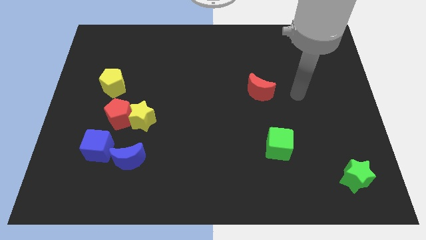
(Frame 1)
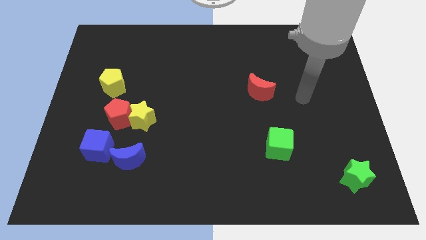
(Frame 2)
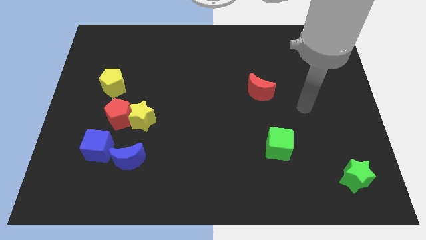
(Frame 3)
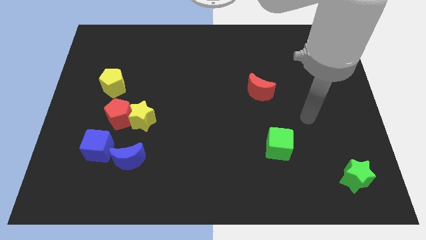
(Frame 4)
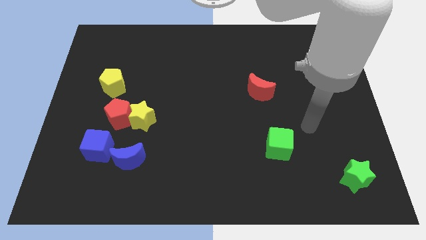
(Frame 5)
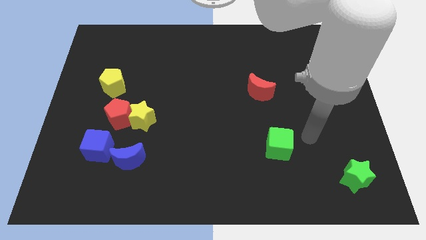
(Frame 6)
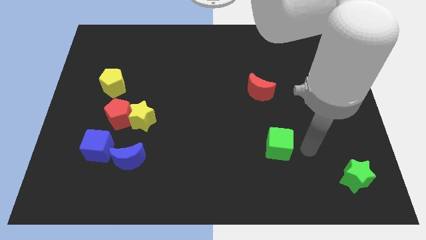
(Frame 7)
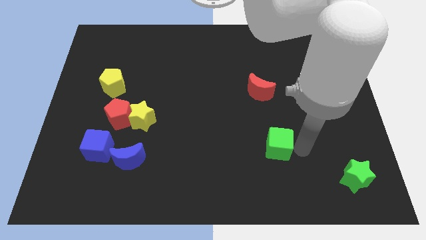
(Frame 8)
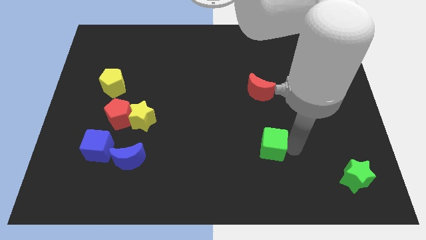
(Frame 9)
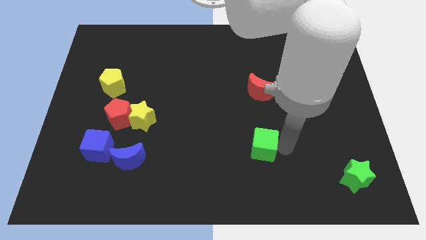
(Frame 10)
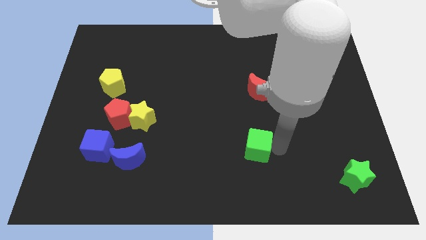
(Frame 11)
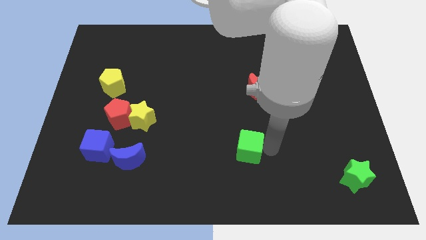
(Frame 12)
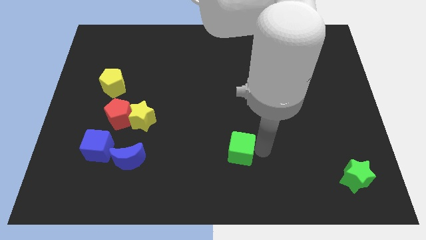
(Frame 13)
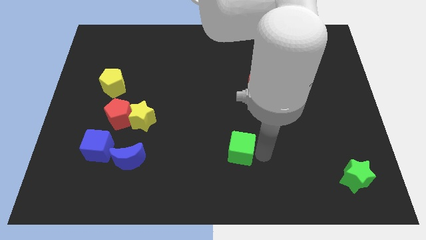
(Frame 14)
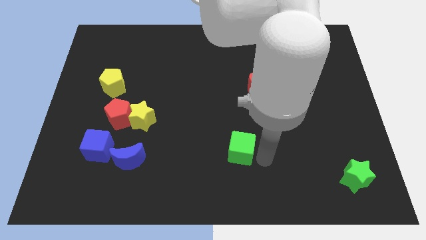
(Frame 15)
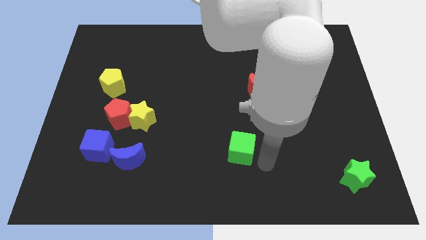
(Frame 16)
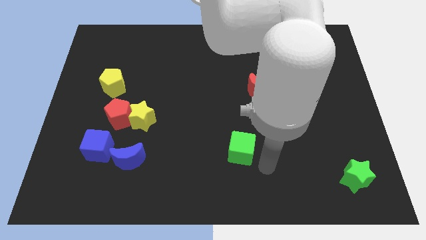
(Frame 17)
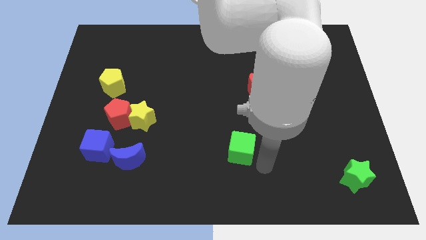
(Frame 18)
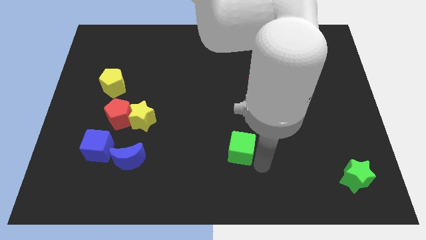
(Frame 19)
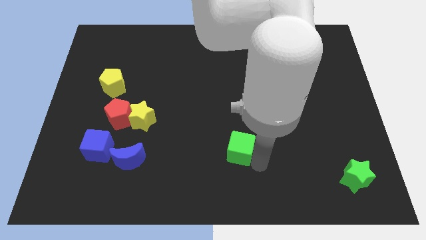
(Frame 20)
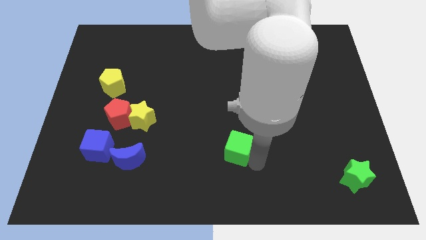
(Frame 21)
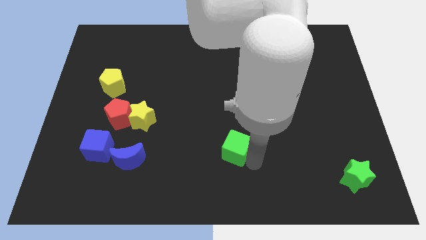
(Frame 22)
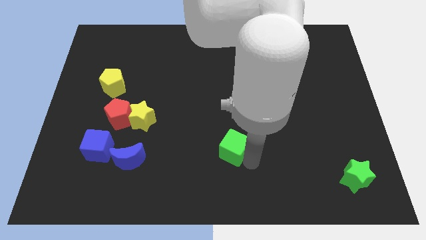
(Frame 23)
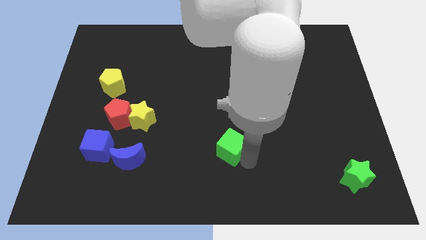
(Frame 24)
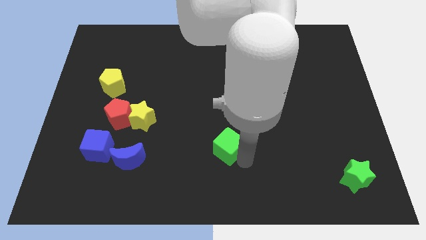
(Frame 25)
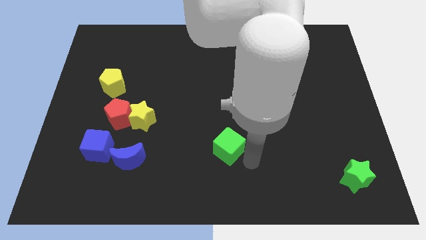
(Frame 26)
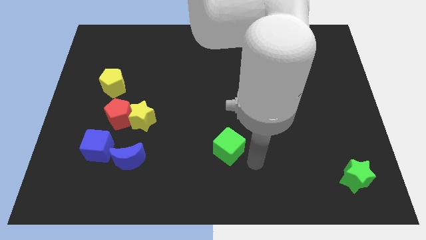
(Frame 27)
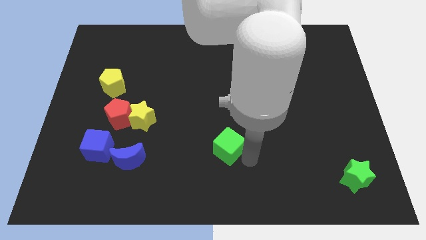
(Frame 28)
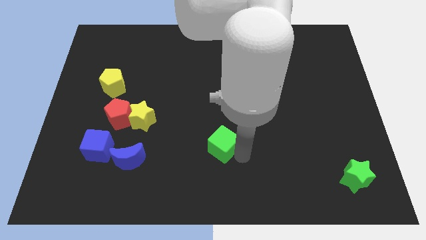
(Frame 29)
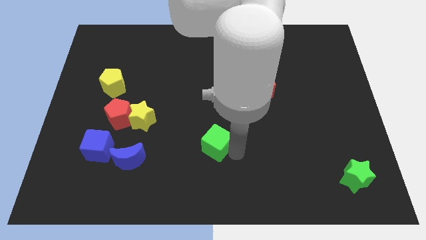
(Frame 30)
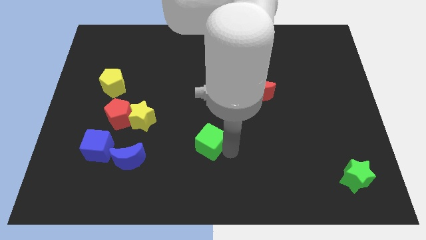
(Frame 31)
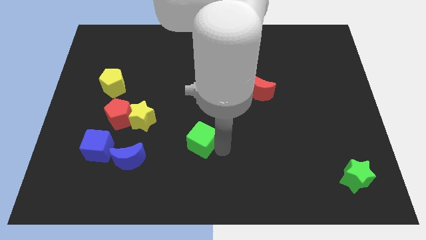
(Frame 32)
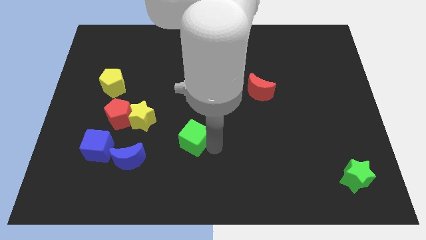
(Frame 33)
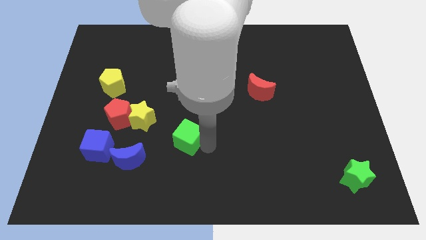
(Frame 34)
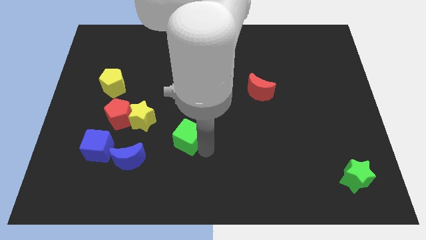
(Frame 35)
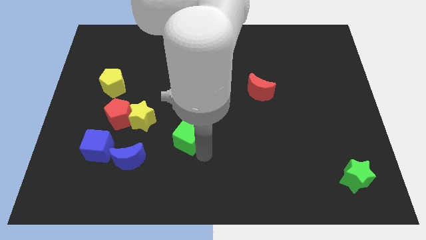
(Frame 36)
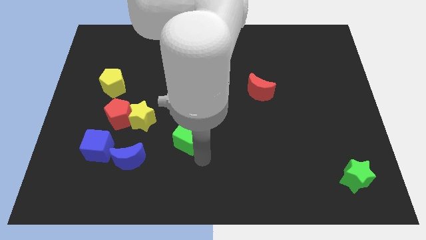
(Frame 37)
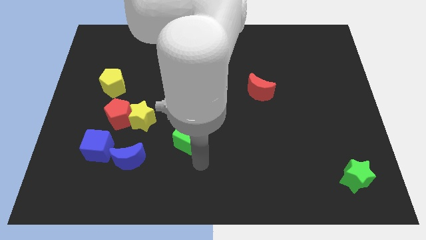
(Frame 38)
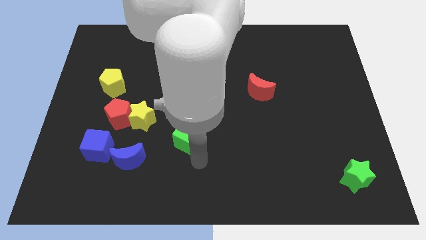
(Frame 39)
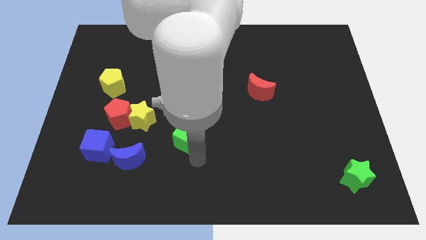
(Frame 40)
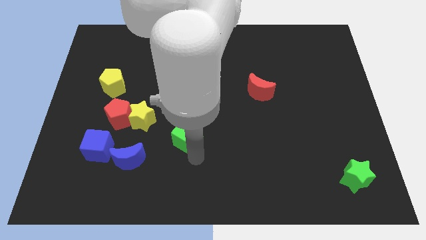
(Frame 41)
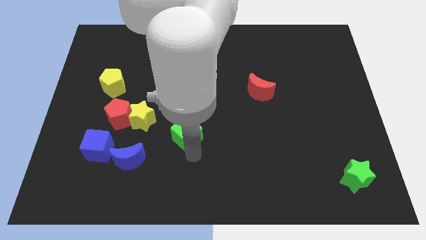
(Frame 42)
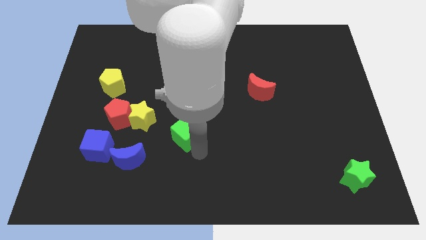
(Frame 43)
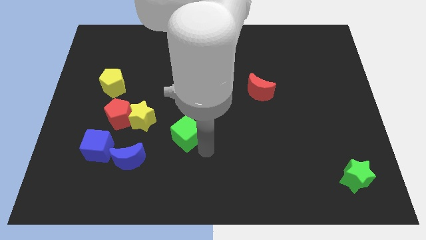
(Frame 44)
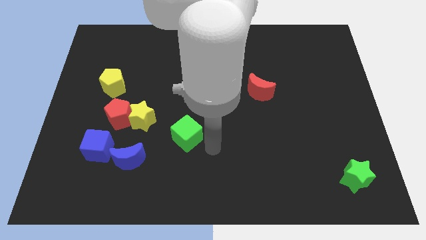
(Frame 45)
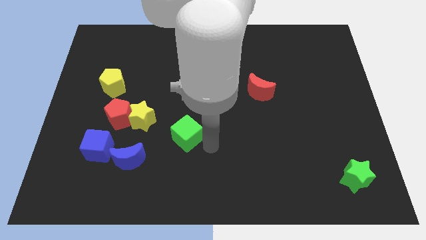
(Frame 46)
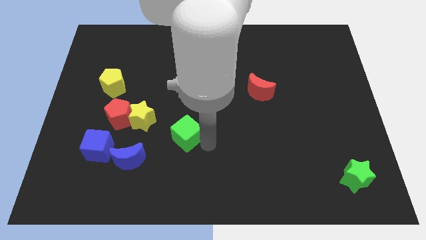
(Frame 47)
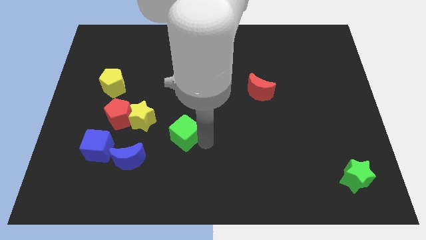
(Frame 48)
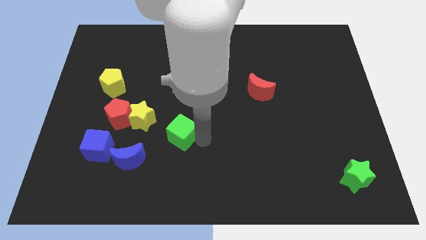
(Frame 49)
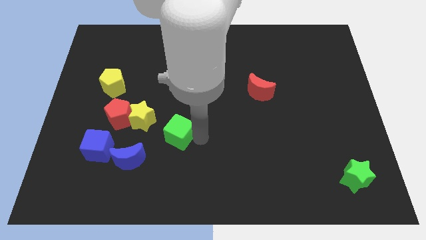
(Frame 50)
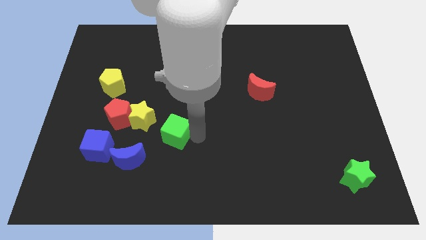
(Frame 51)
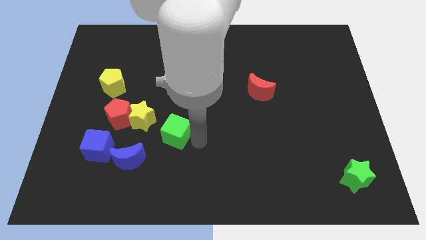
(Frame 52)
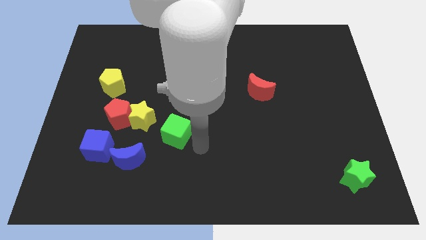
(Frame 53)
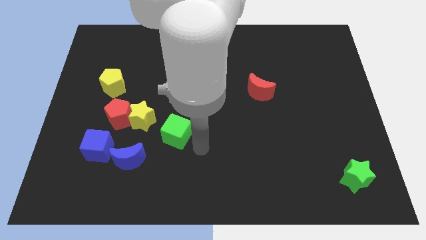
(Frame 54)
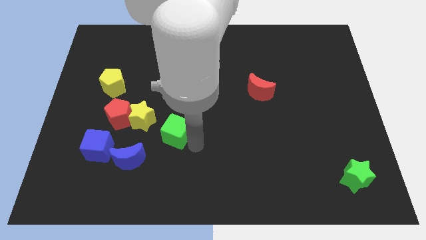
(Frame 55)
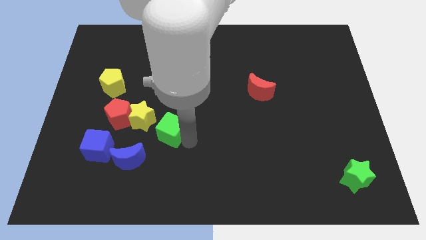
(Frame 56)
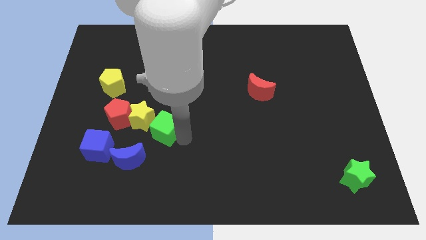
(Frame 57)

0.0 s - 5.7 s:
push the green cube to the yellow star

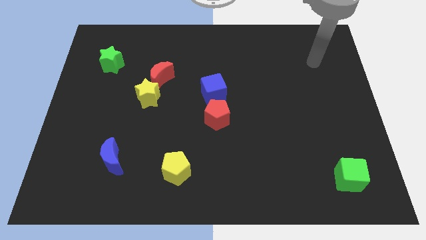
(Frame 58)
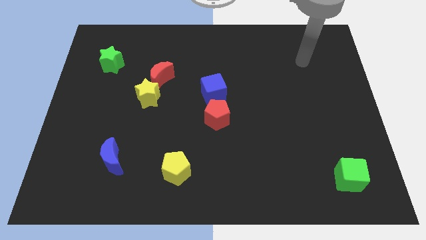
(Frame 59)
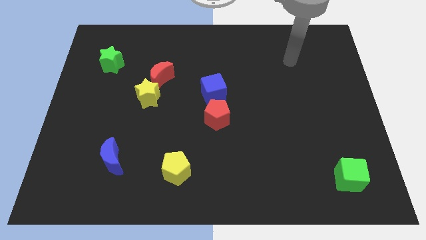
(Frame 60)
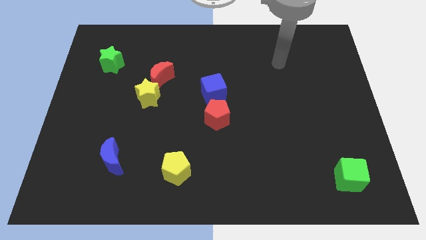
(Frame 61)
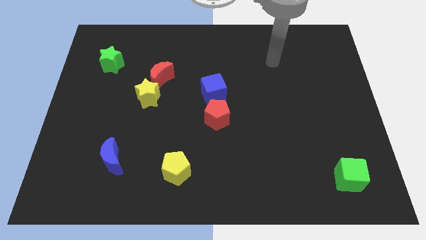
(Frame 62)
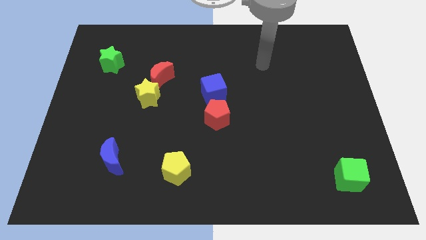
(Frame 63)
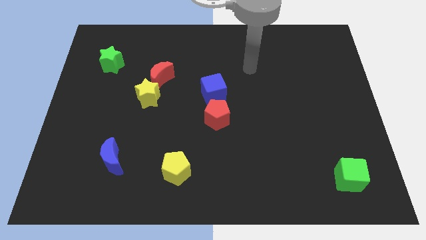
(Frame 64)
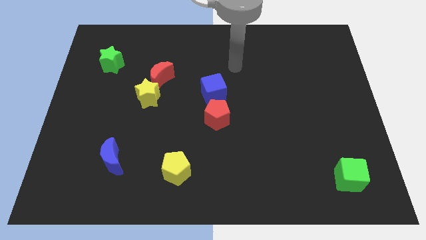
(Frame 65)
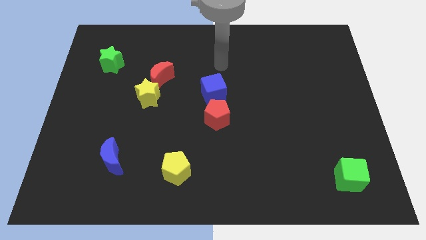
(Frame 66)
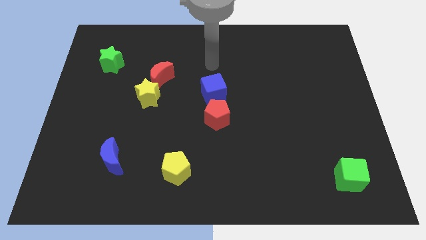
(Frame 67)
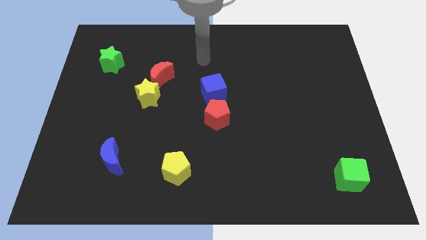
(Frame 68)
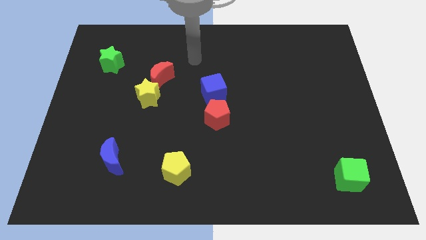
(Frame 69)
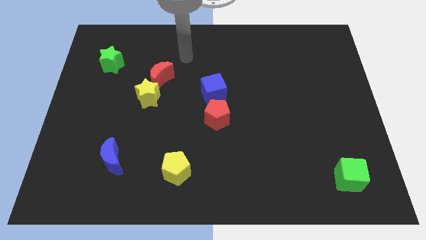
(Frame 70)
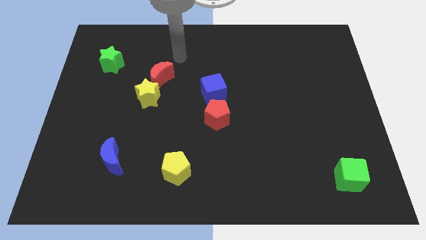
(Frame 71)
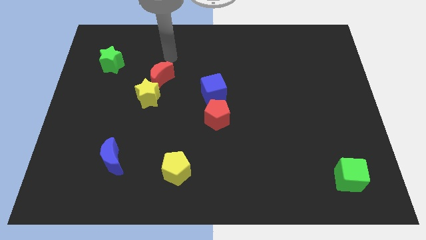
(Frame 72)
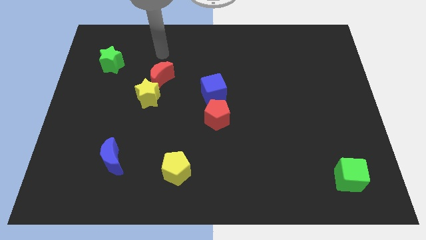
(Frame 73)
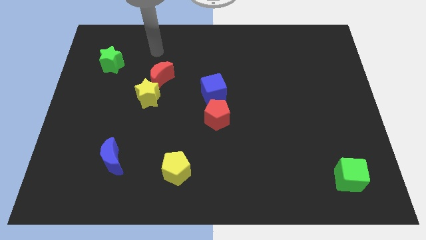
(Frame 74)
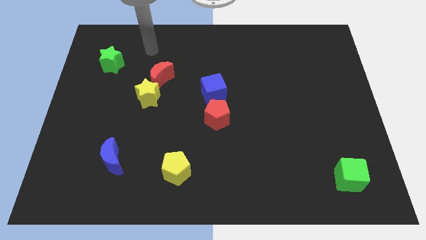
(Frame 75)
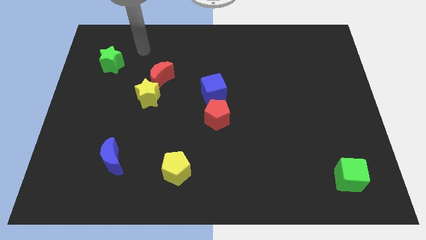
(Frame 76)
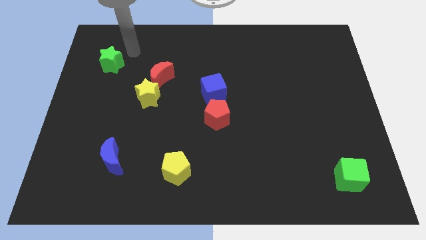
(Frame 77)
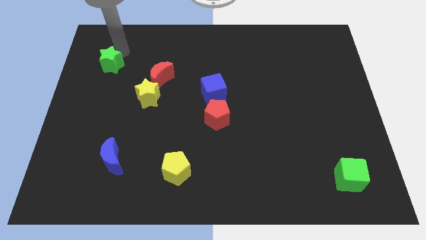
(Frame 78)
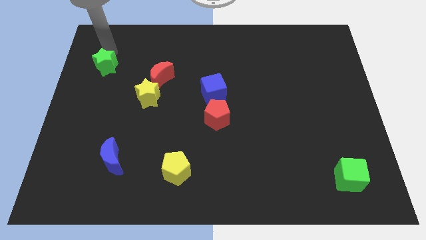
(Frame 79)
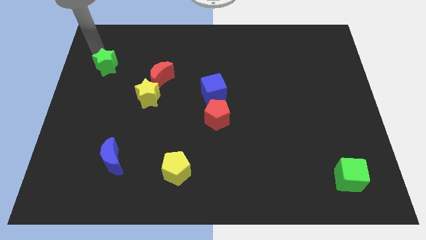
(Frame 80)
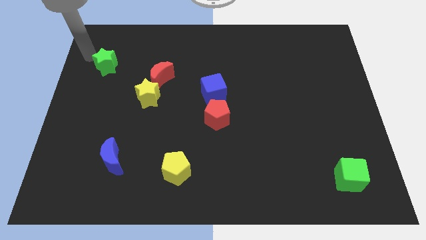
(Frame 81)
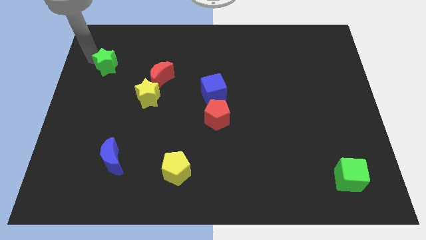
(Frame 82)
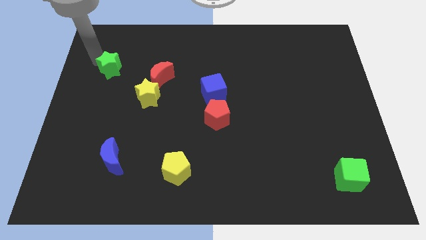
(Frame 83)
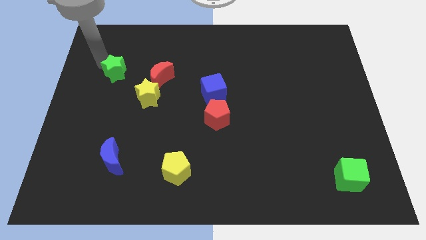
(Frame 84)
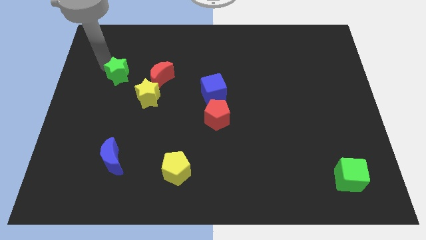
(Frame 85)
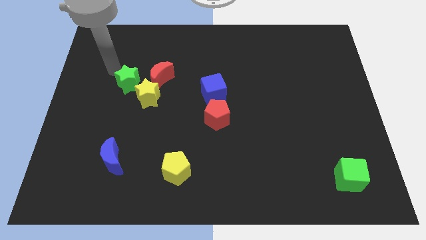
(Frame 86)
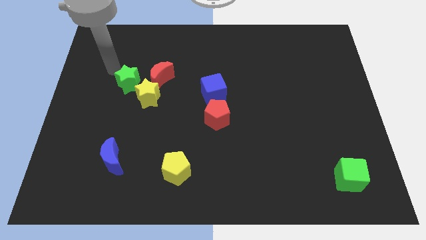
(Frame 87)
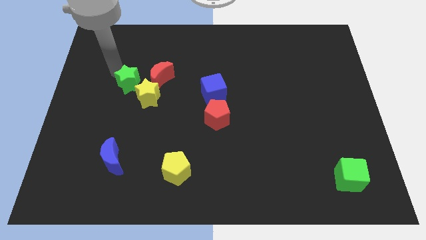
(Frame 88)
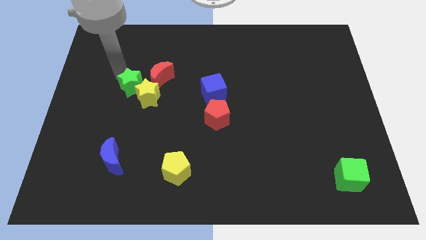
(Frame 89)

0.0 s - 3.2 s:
move the green star towards the yellow star
